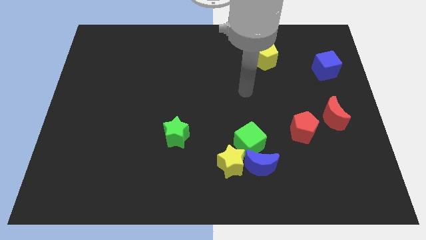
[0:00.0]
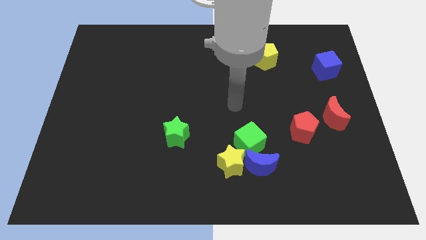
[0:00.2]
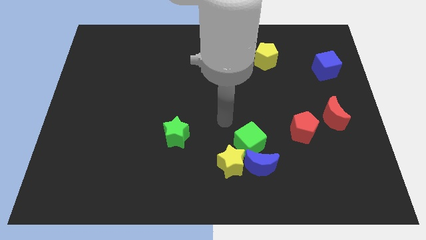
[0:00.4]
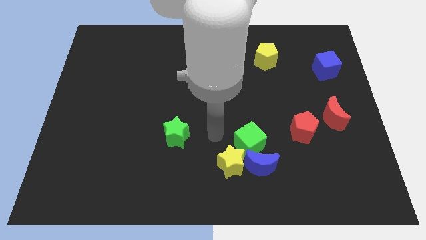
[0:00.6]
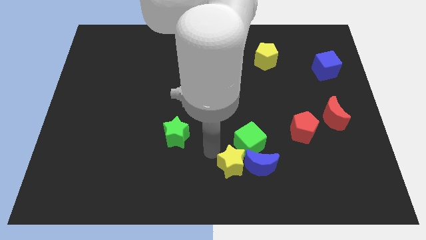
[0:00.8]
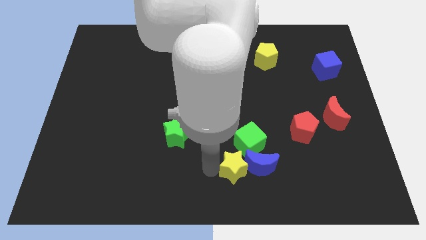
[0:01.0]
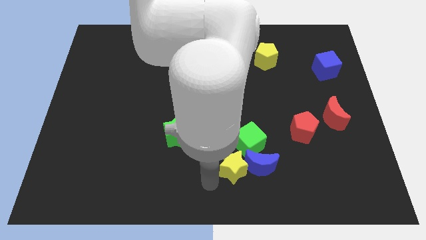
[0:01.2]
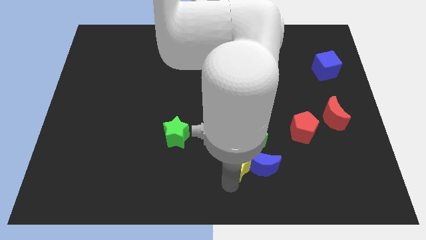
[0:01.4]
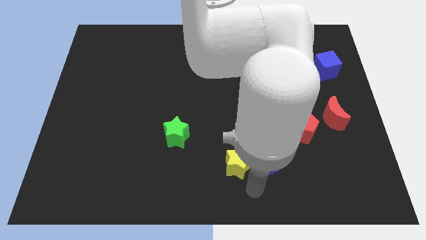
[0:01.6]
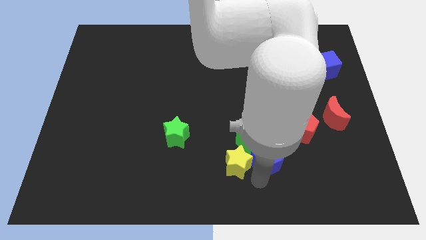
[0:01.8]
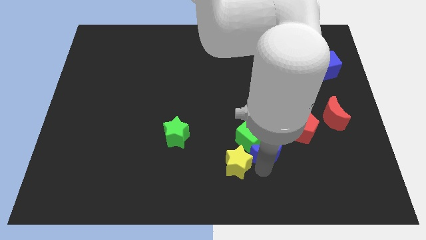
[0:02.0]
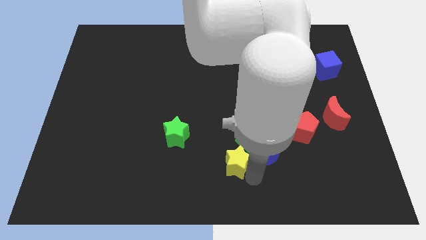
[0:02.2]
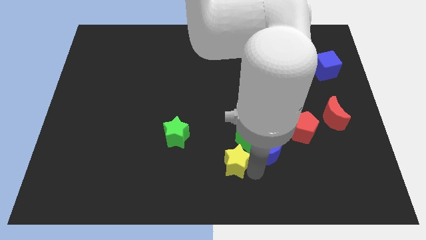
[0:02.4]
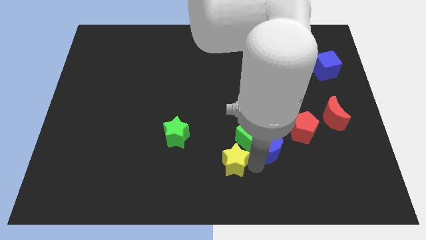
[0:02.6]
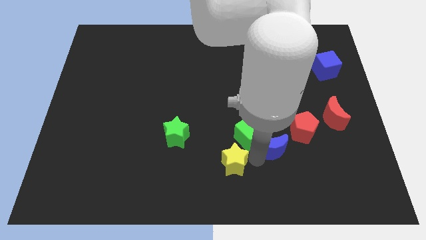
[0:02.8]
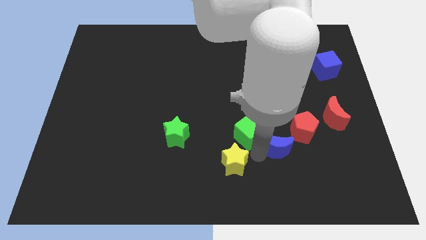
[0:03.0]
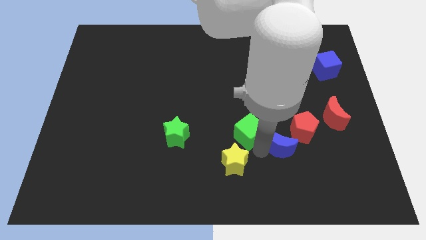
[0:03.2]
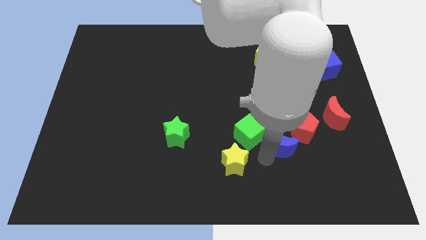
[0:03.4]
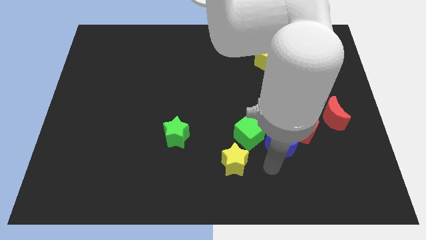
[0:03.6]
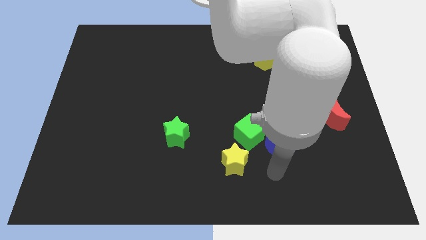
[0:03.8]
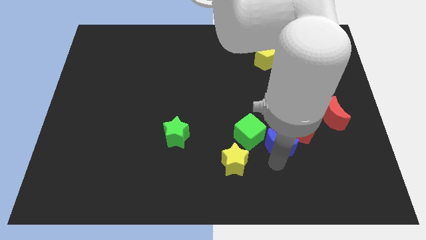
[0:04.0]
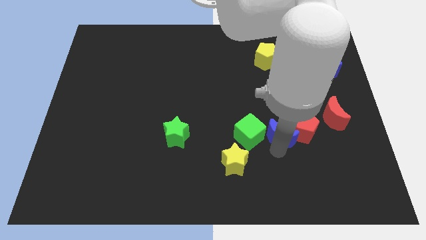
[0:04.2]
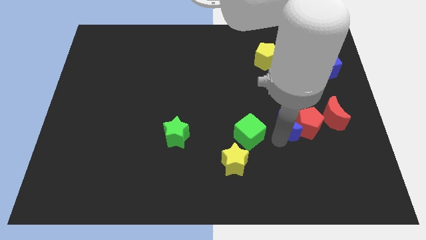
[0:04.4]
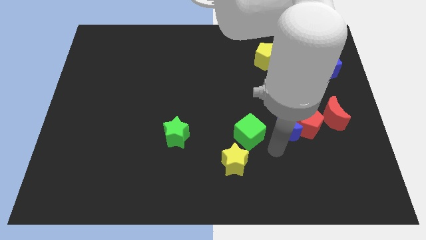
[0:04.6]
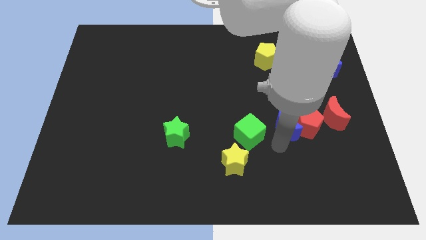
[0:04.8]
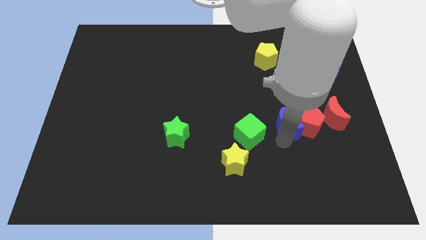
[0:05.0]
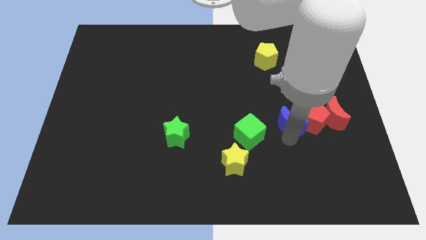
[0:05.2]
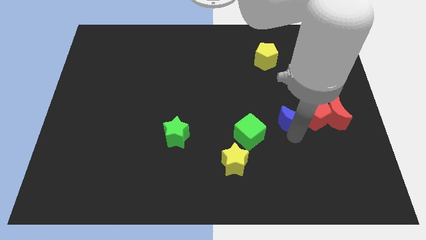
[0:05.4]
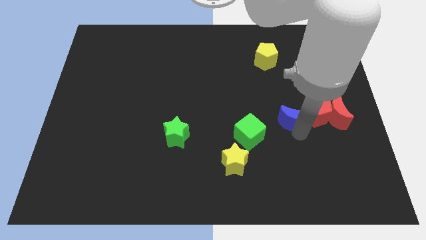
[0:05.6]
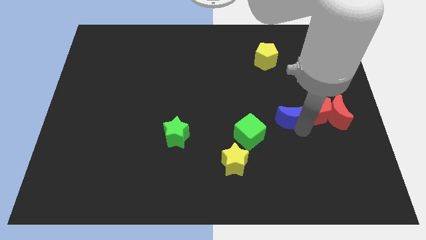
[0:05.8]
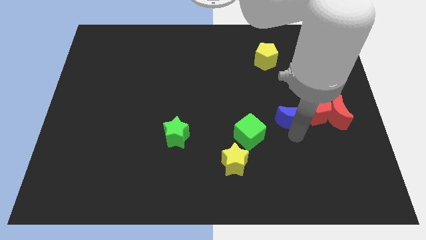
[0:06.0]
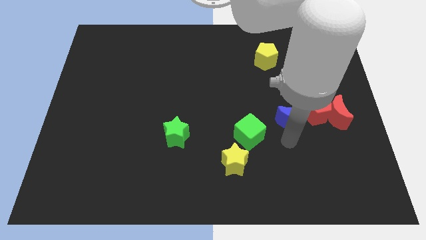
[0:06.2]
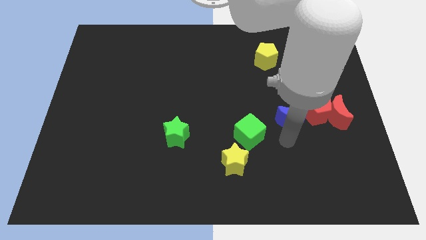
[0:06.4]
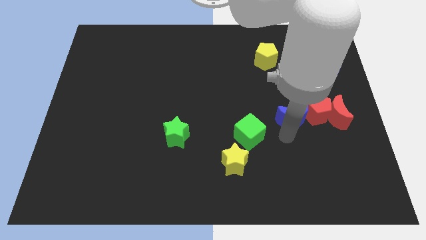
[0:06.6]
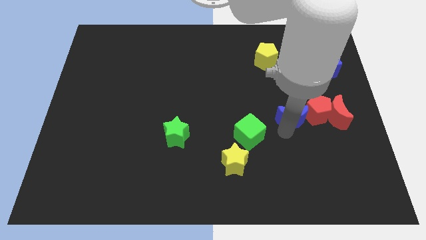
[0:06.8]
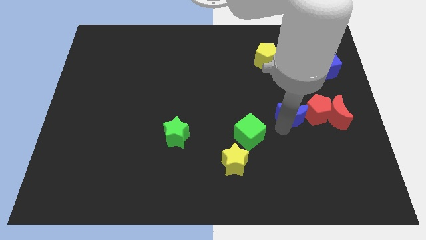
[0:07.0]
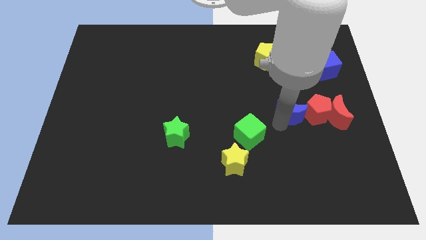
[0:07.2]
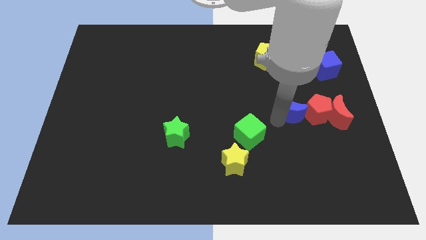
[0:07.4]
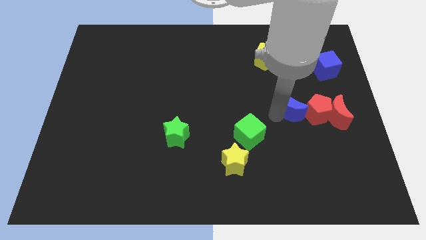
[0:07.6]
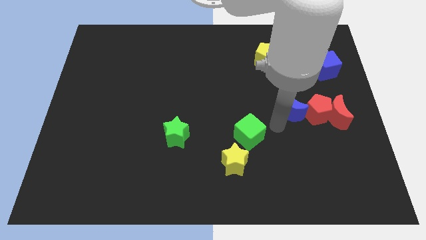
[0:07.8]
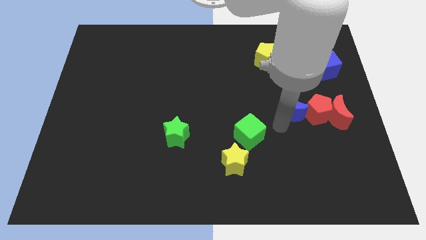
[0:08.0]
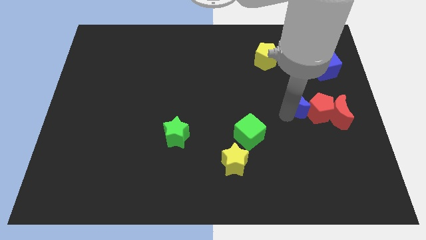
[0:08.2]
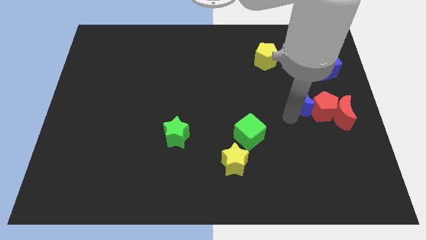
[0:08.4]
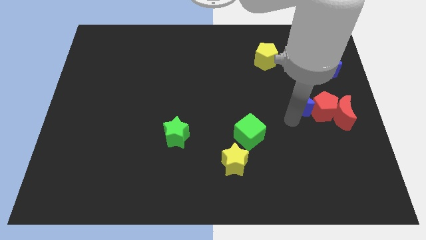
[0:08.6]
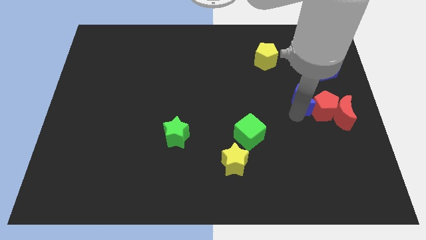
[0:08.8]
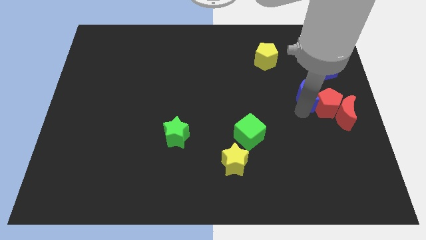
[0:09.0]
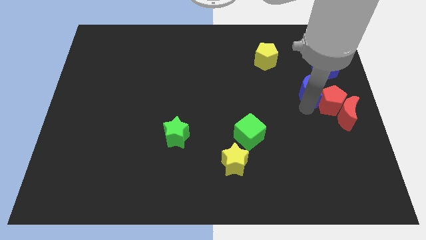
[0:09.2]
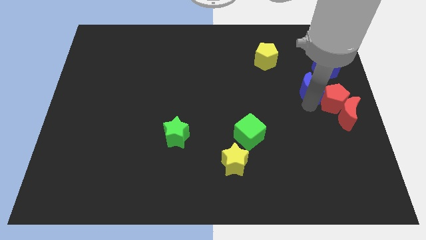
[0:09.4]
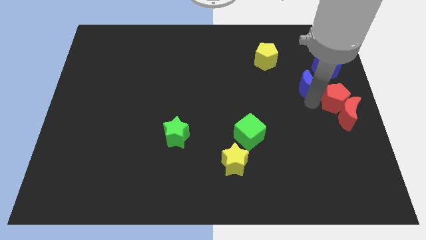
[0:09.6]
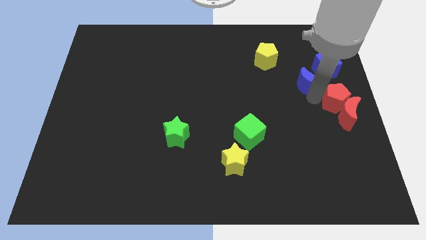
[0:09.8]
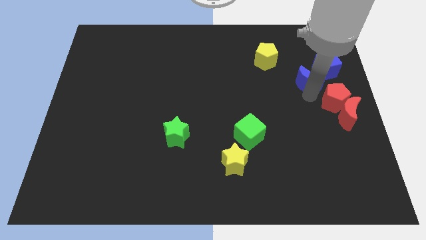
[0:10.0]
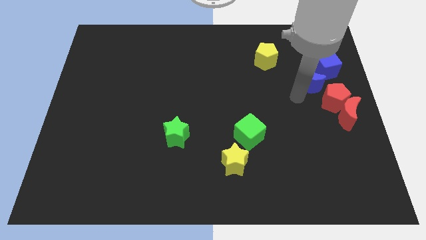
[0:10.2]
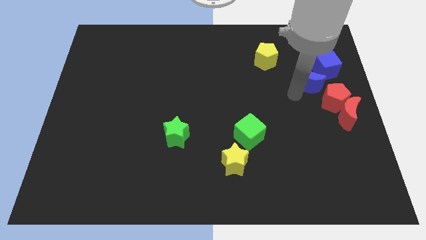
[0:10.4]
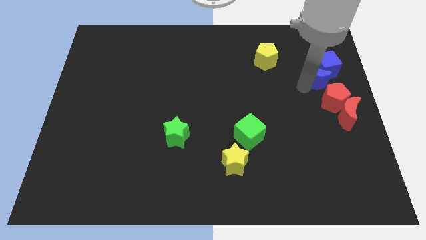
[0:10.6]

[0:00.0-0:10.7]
put the blue moon close to the blue cube

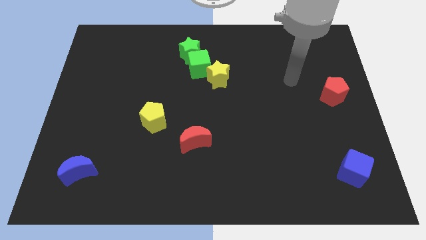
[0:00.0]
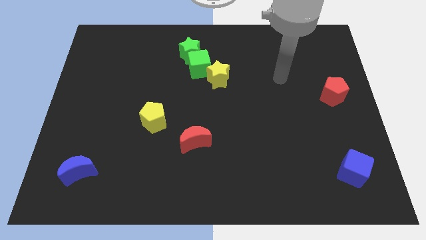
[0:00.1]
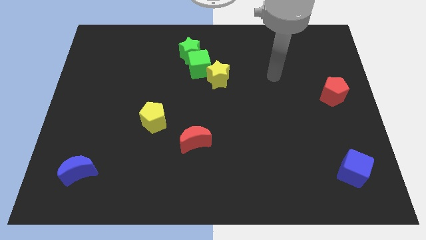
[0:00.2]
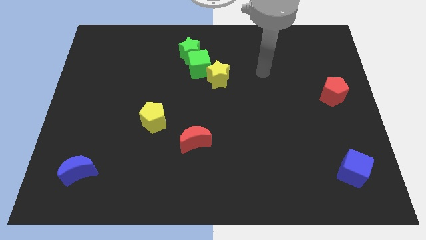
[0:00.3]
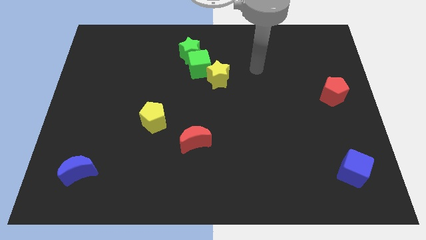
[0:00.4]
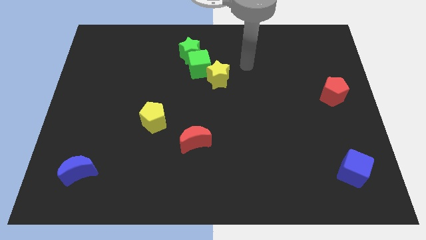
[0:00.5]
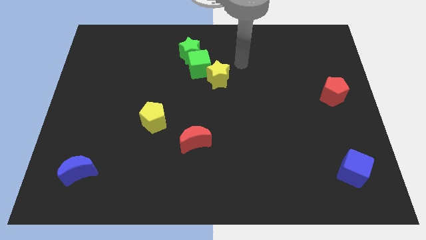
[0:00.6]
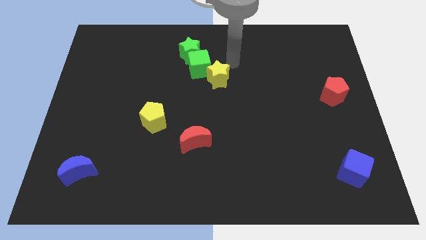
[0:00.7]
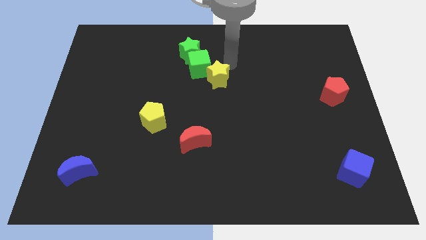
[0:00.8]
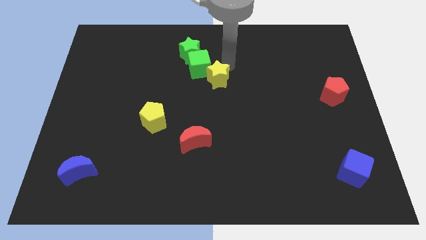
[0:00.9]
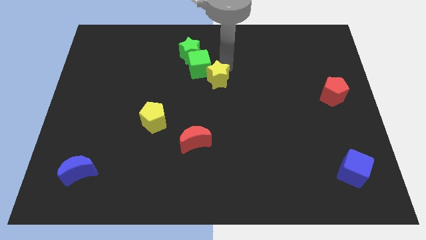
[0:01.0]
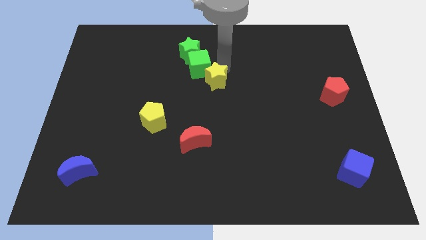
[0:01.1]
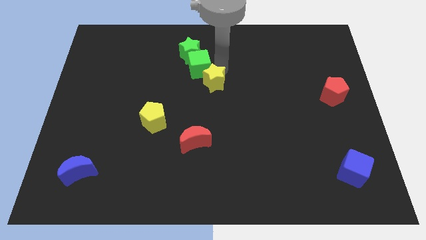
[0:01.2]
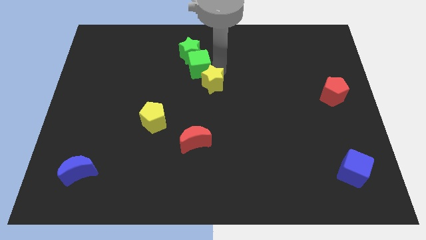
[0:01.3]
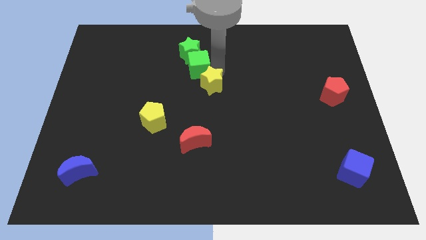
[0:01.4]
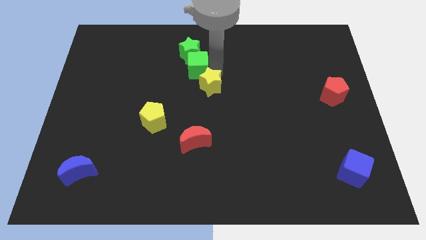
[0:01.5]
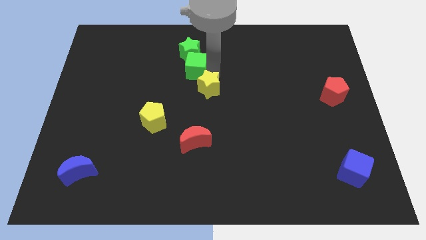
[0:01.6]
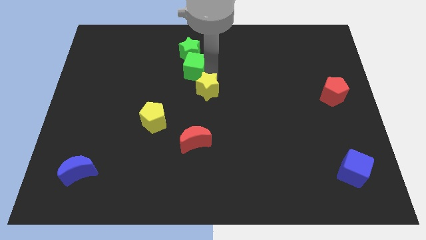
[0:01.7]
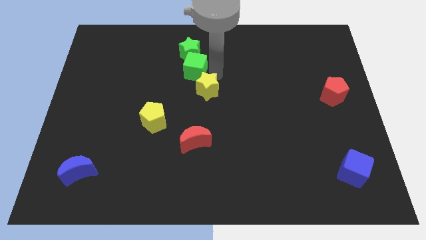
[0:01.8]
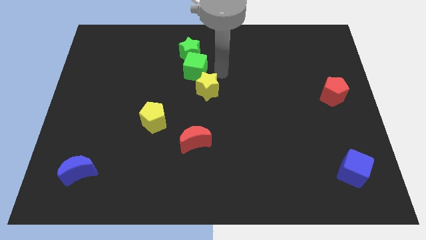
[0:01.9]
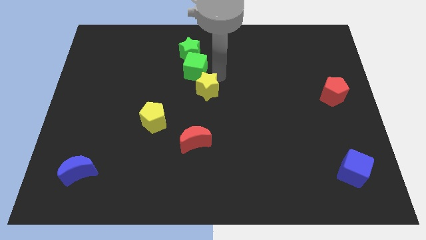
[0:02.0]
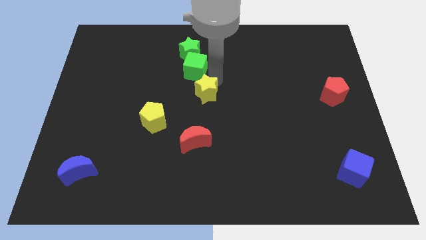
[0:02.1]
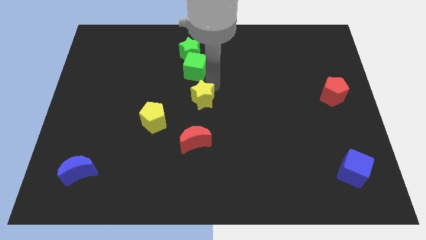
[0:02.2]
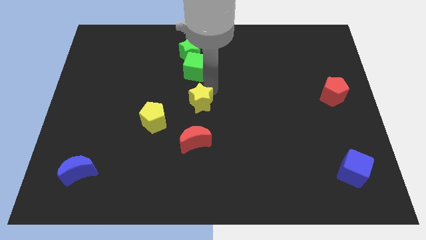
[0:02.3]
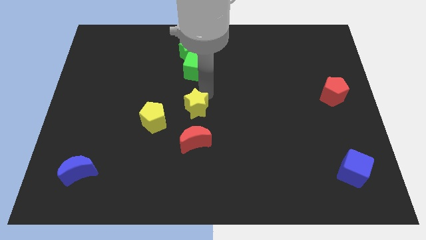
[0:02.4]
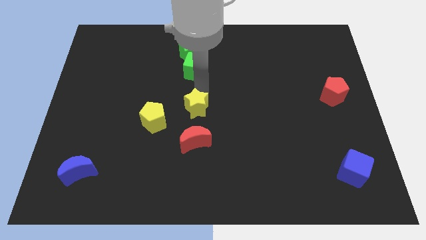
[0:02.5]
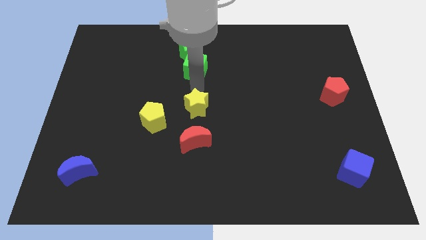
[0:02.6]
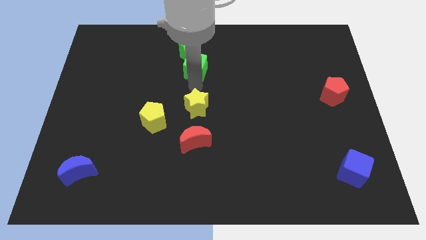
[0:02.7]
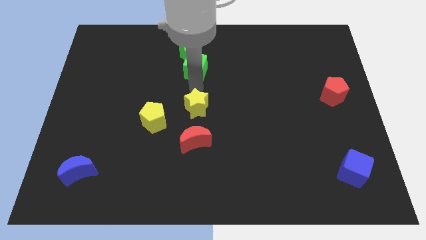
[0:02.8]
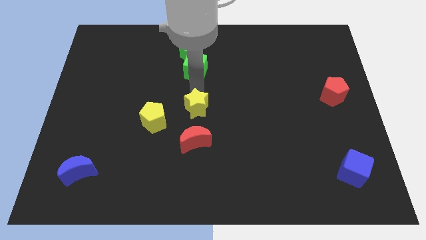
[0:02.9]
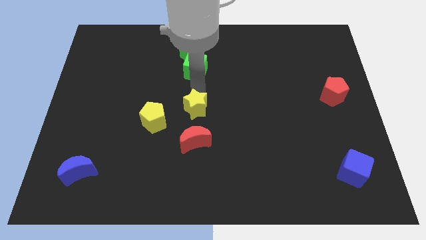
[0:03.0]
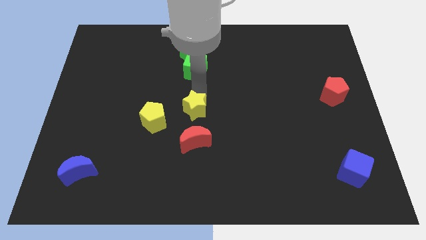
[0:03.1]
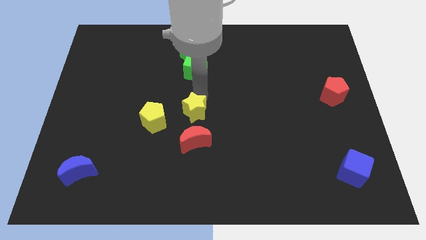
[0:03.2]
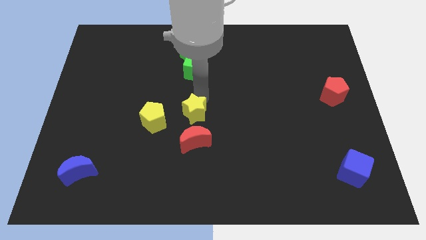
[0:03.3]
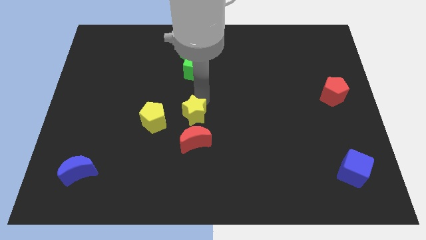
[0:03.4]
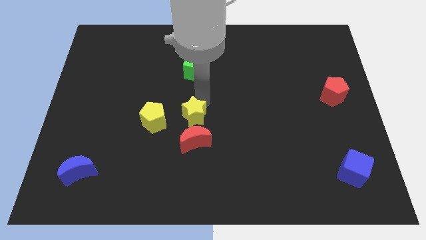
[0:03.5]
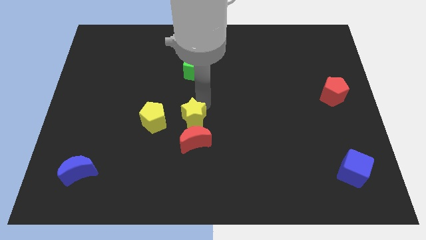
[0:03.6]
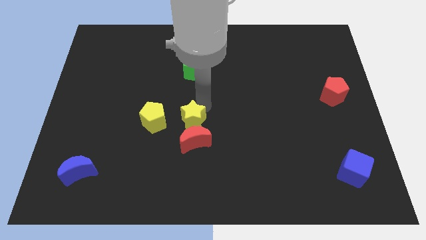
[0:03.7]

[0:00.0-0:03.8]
slide the yellow star next to the red moon
